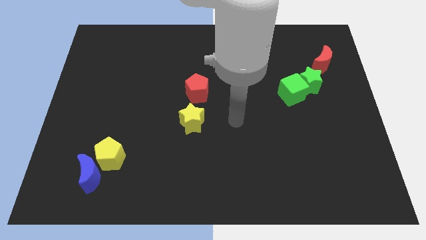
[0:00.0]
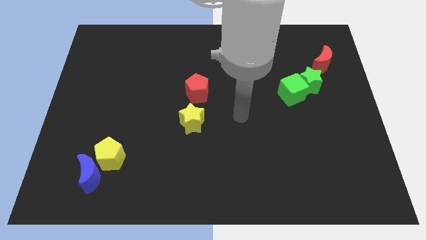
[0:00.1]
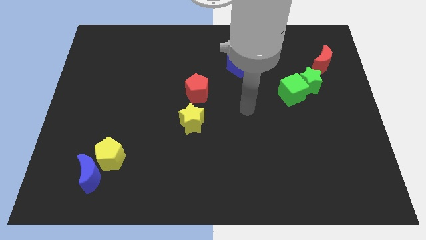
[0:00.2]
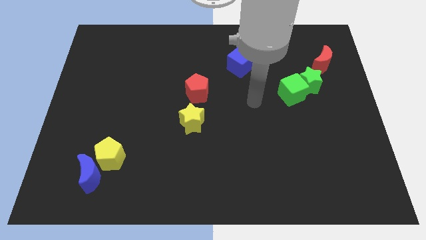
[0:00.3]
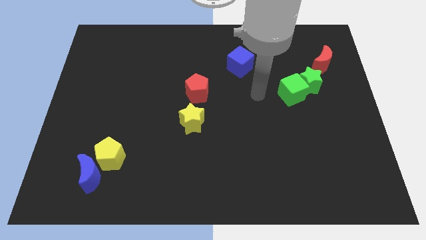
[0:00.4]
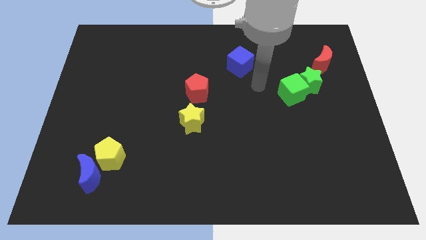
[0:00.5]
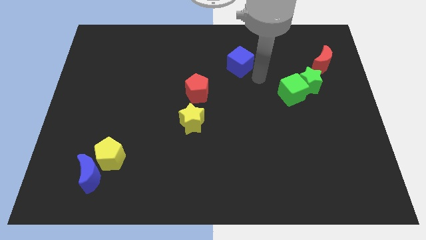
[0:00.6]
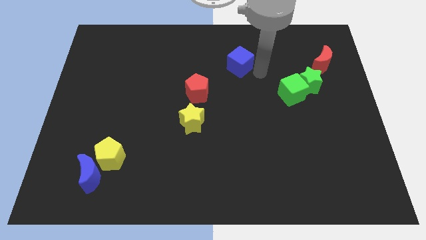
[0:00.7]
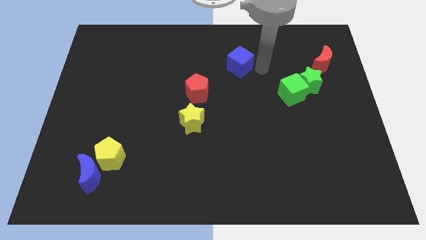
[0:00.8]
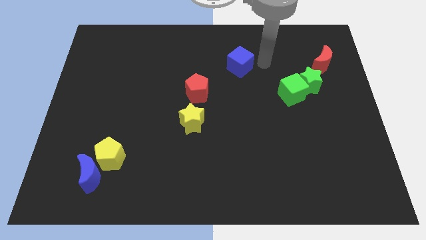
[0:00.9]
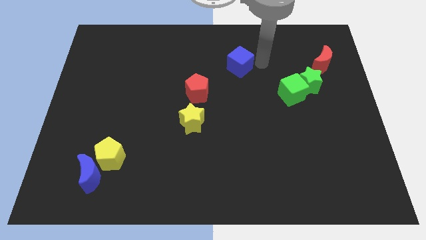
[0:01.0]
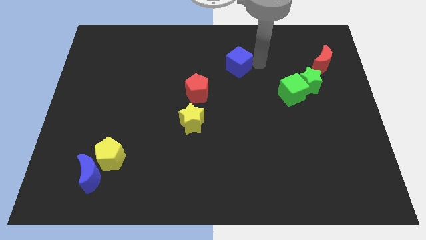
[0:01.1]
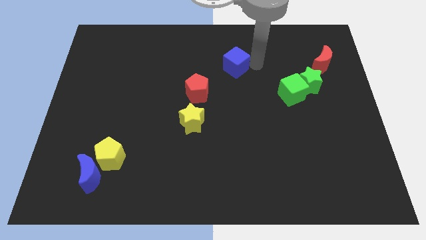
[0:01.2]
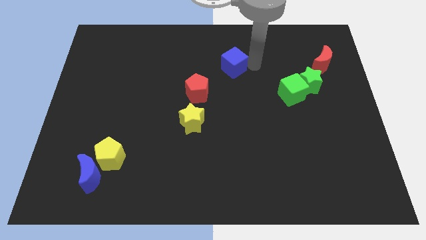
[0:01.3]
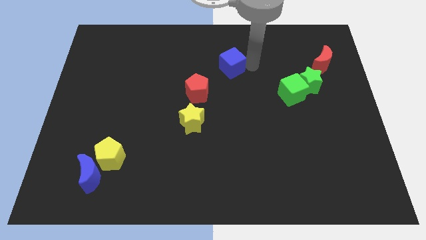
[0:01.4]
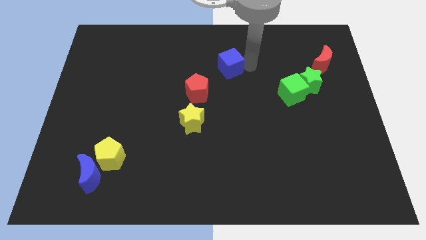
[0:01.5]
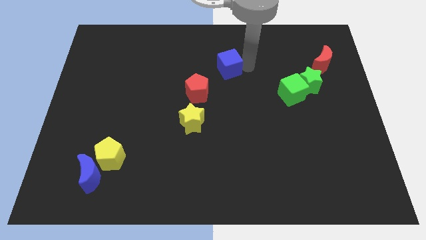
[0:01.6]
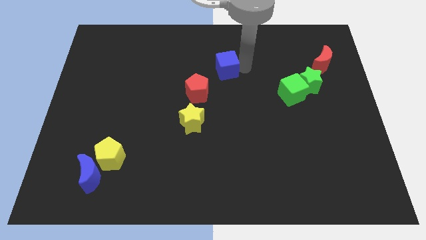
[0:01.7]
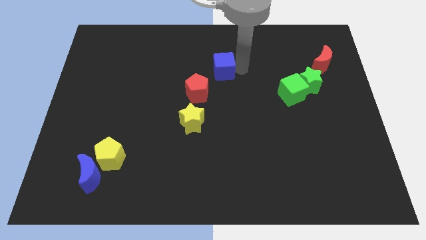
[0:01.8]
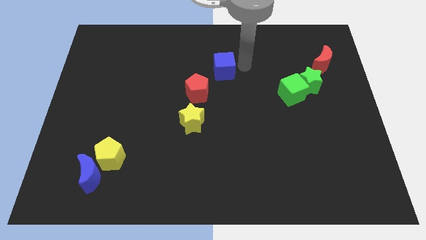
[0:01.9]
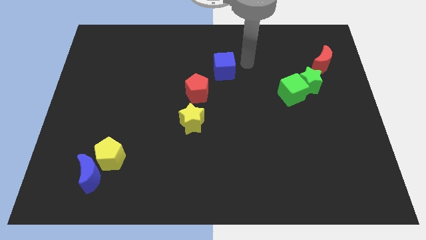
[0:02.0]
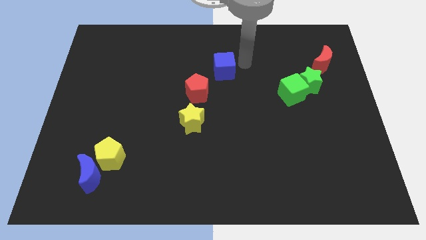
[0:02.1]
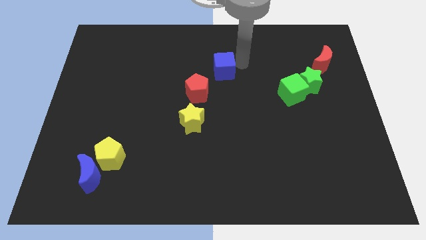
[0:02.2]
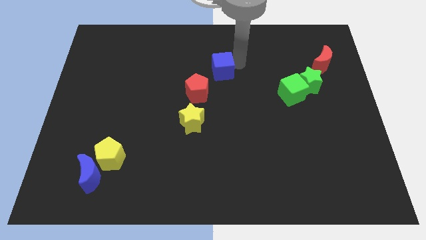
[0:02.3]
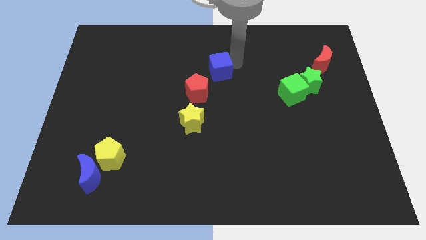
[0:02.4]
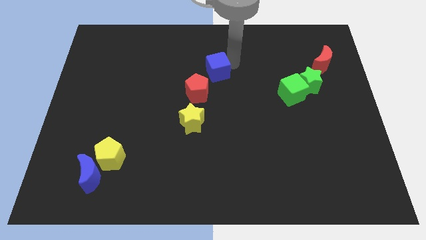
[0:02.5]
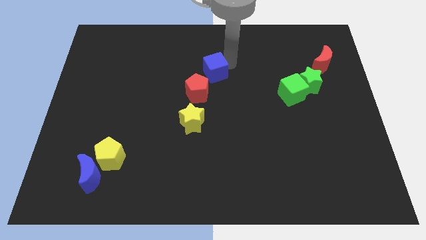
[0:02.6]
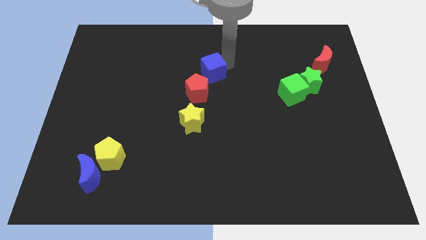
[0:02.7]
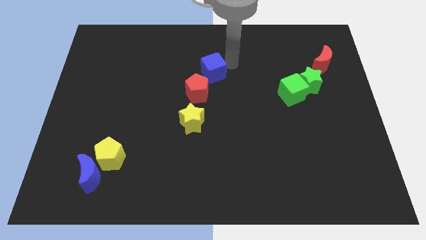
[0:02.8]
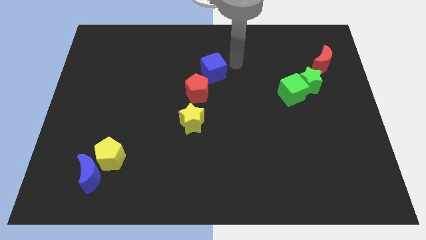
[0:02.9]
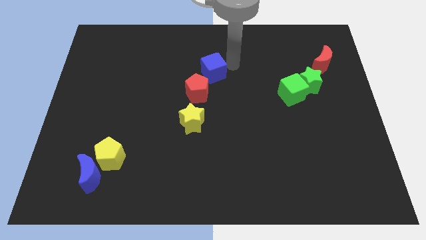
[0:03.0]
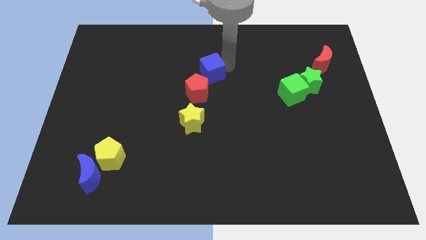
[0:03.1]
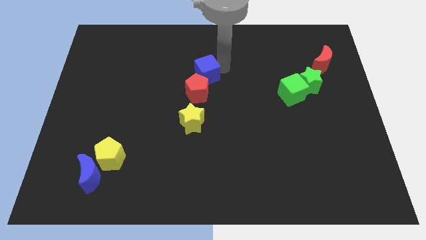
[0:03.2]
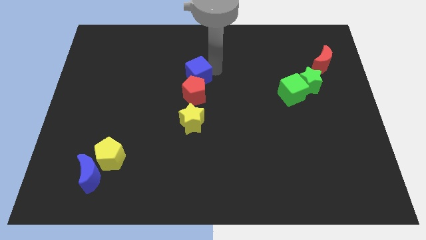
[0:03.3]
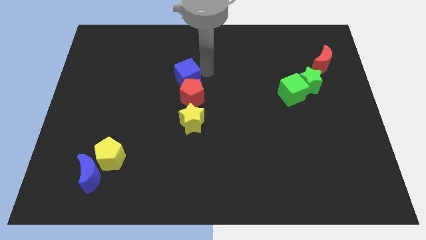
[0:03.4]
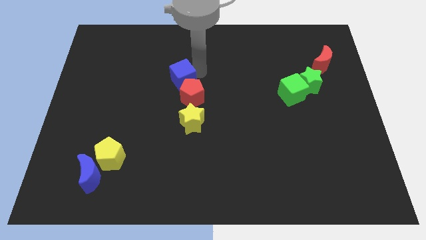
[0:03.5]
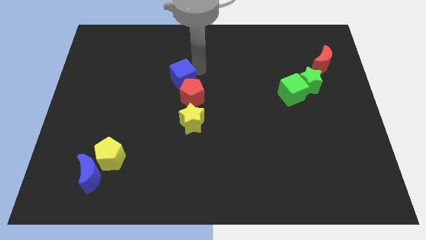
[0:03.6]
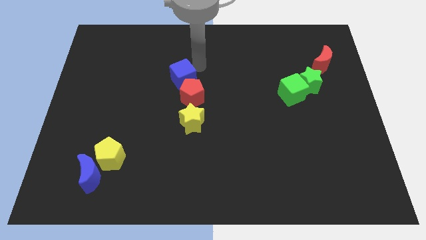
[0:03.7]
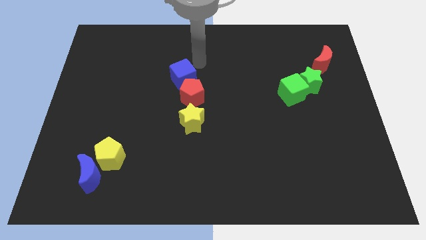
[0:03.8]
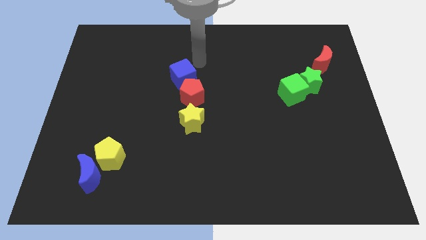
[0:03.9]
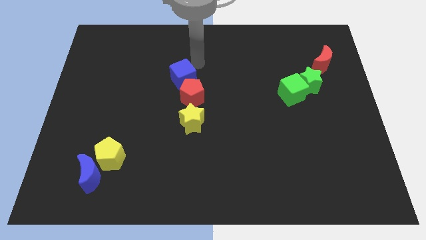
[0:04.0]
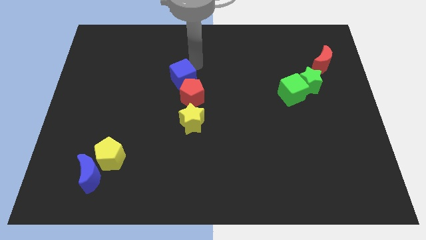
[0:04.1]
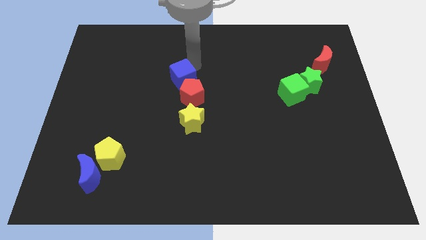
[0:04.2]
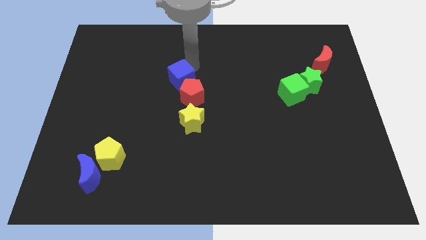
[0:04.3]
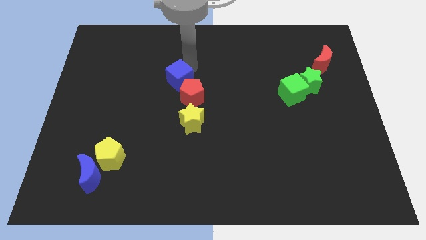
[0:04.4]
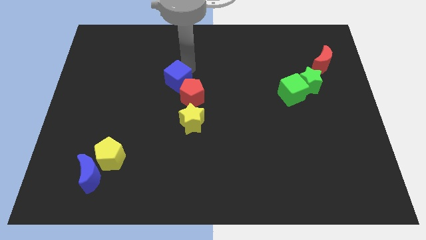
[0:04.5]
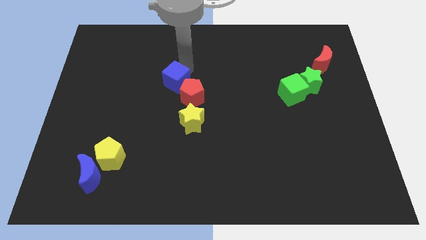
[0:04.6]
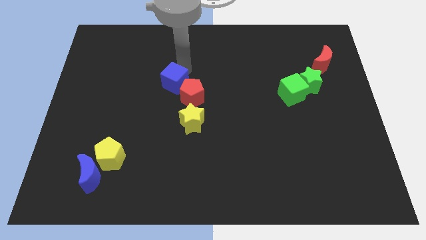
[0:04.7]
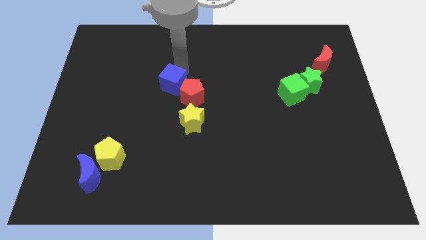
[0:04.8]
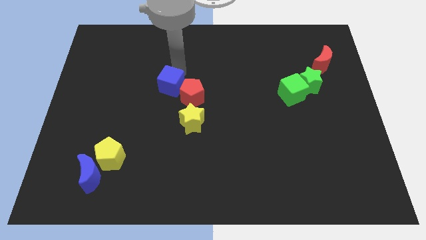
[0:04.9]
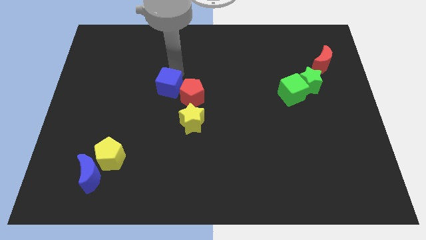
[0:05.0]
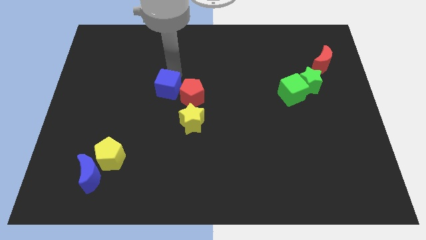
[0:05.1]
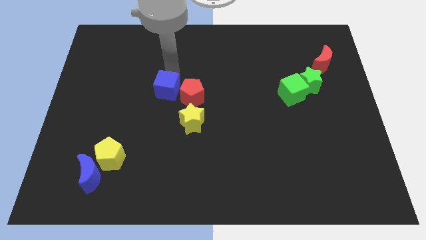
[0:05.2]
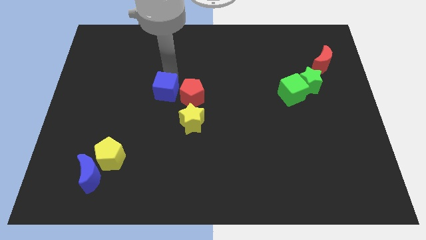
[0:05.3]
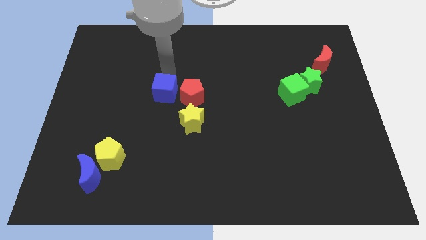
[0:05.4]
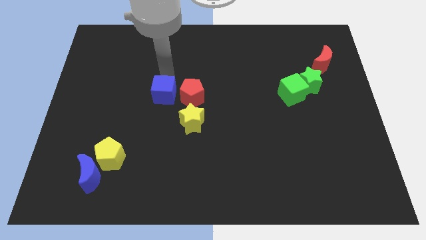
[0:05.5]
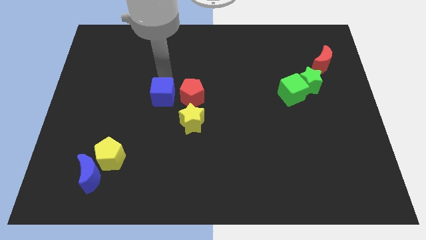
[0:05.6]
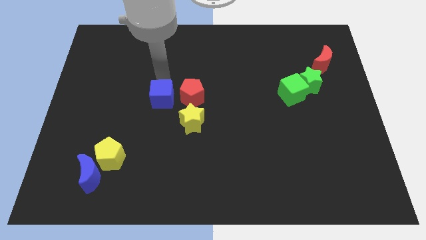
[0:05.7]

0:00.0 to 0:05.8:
move the blue cube diagonally downwards and left

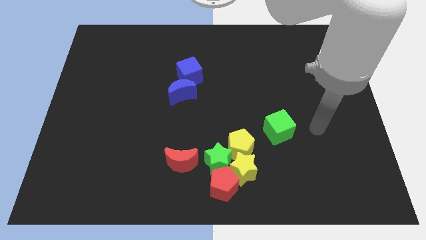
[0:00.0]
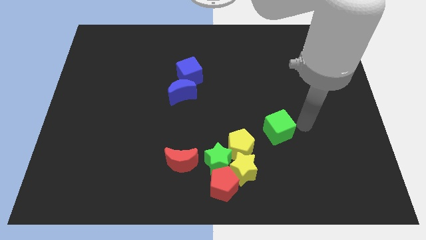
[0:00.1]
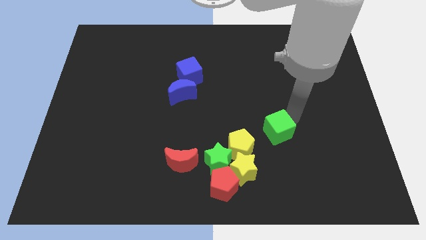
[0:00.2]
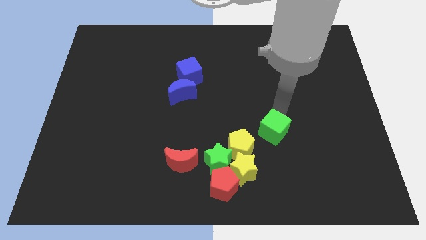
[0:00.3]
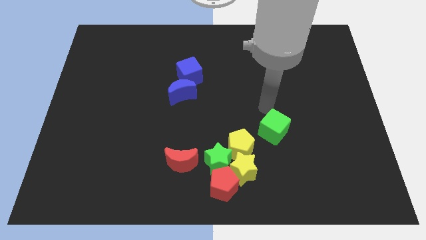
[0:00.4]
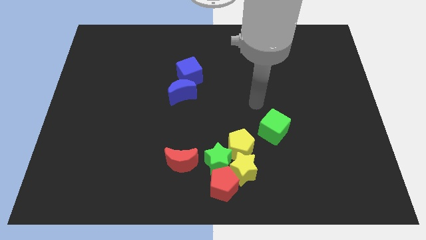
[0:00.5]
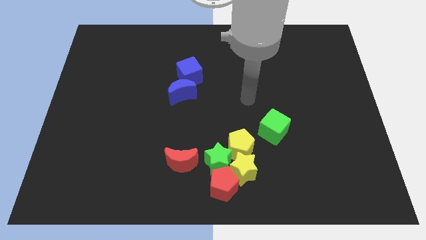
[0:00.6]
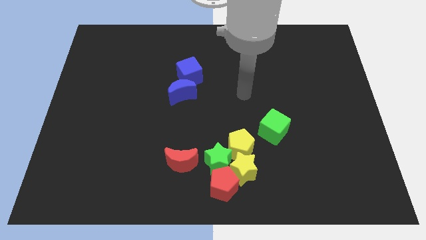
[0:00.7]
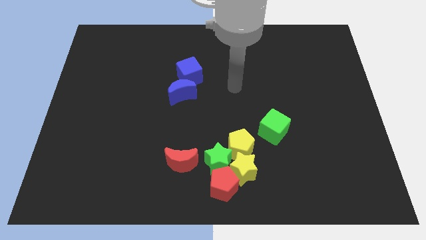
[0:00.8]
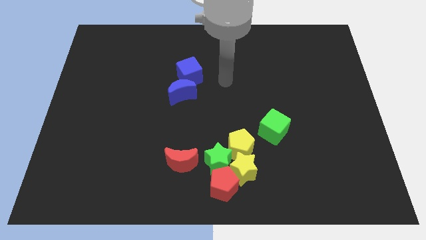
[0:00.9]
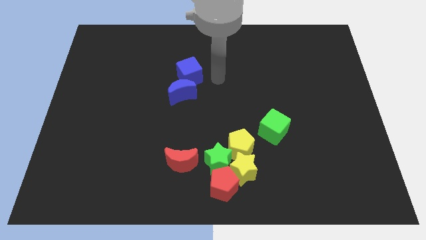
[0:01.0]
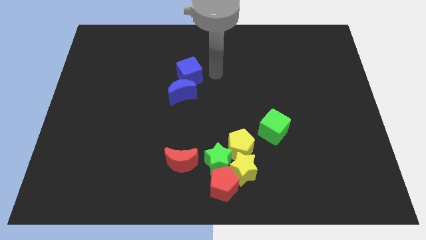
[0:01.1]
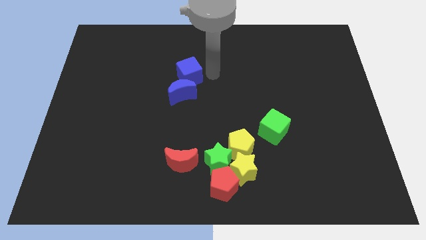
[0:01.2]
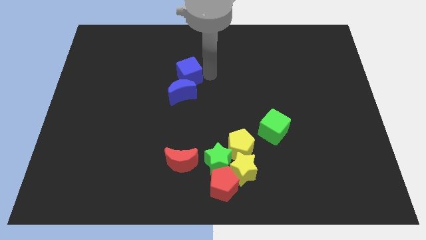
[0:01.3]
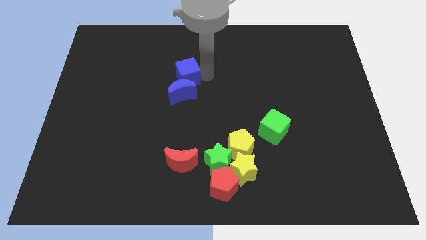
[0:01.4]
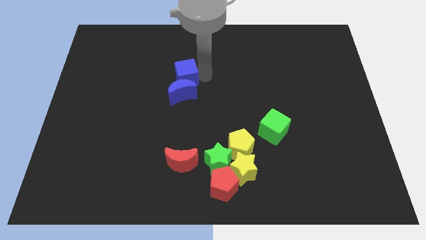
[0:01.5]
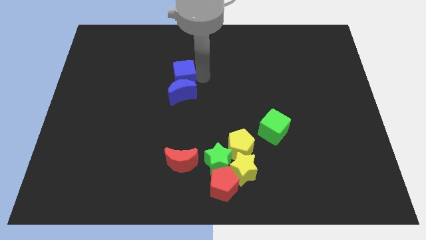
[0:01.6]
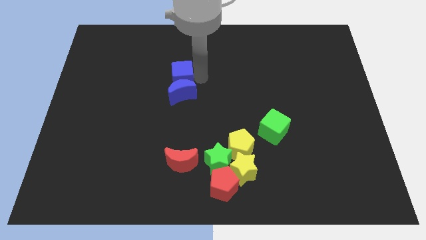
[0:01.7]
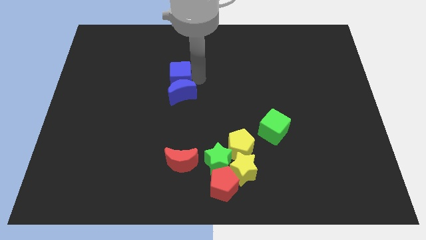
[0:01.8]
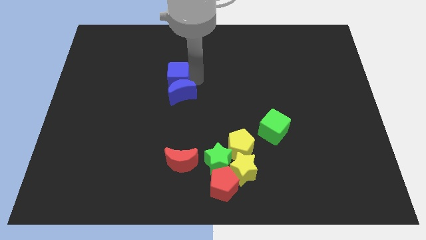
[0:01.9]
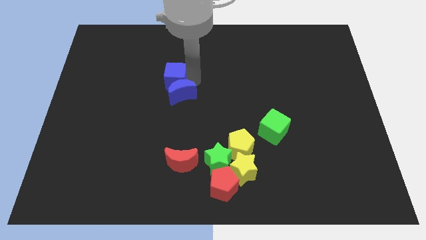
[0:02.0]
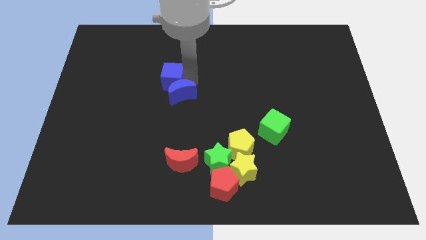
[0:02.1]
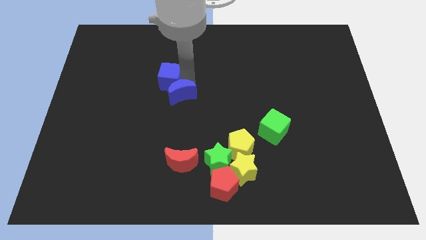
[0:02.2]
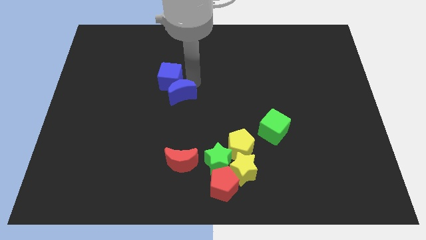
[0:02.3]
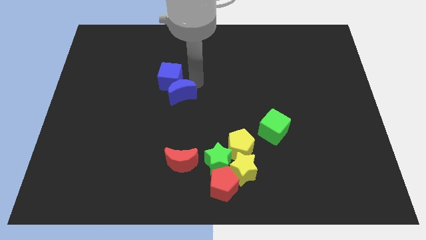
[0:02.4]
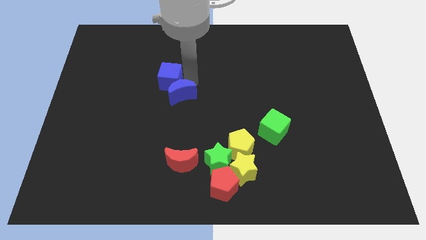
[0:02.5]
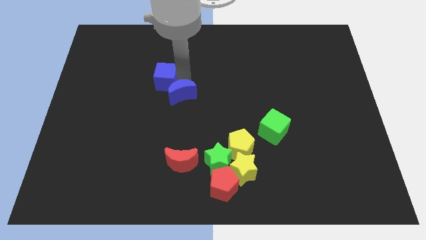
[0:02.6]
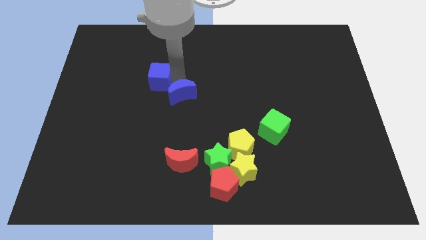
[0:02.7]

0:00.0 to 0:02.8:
slide the blue cube to the left slightly
